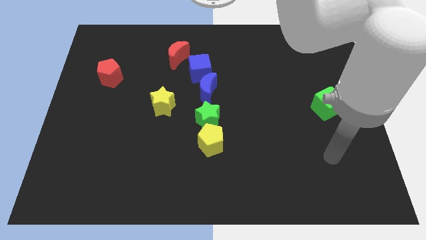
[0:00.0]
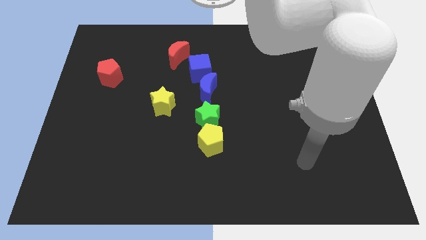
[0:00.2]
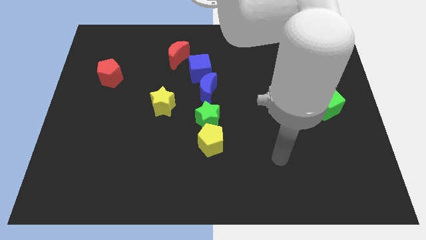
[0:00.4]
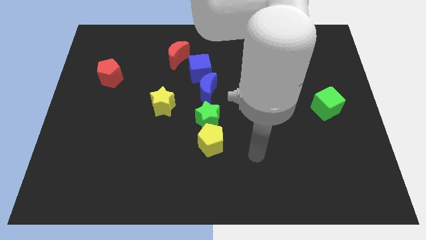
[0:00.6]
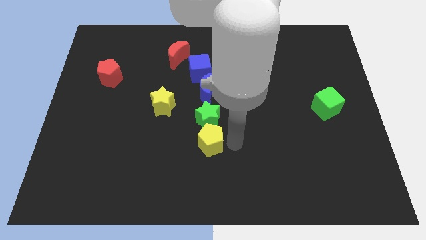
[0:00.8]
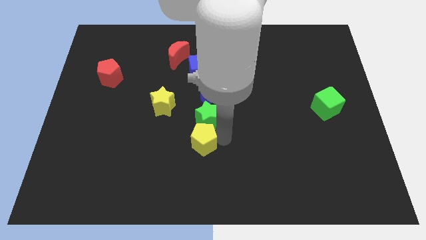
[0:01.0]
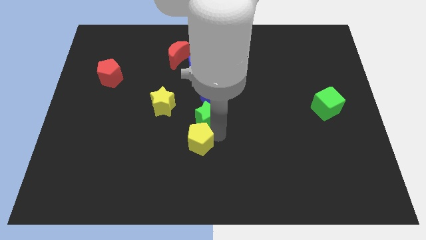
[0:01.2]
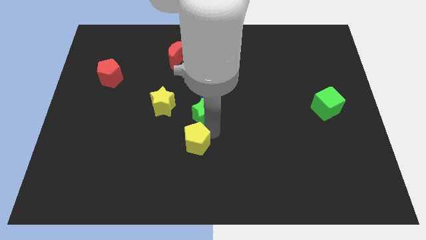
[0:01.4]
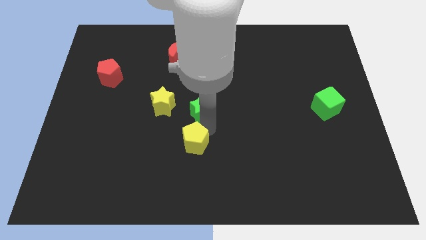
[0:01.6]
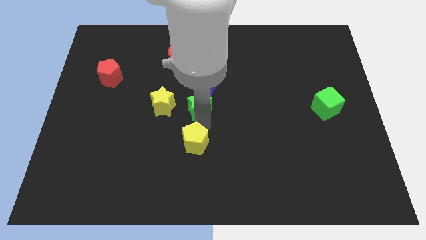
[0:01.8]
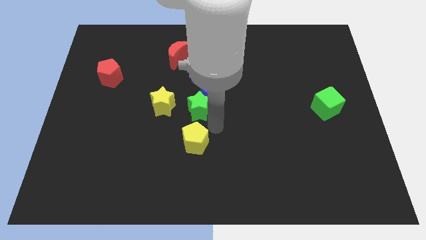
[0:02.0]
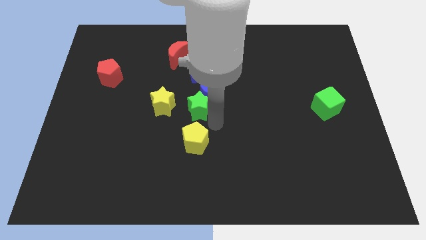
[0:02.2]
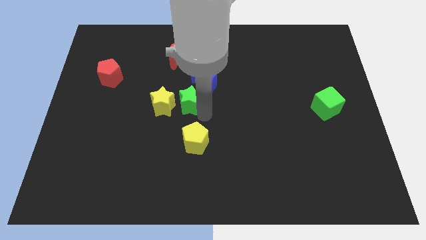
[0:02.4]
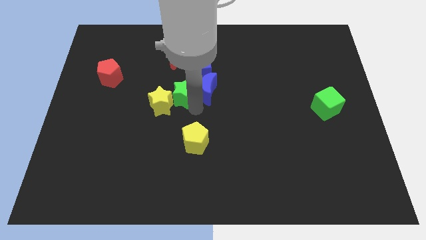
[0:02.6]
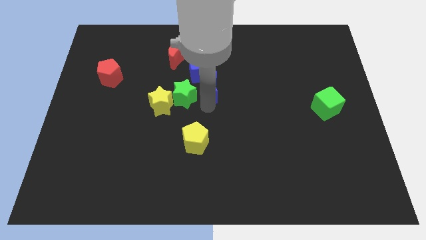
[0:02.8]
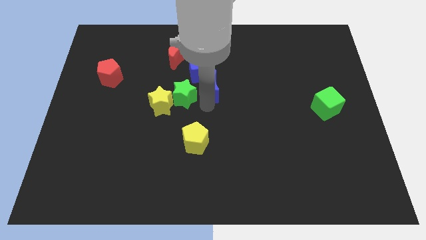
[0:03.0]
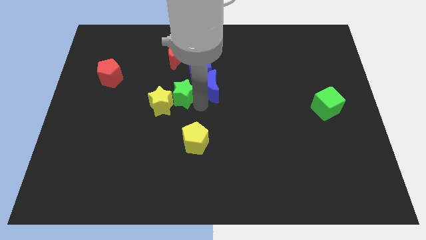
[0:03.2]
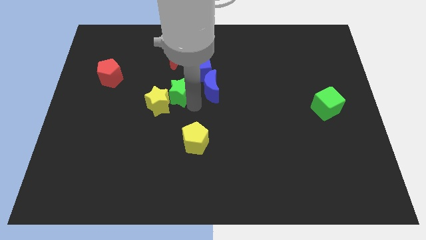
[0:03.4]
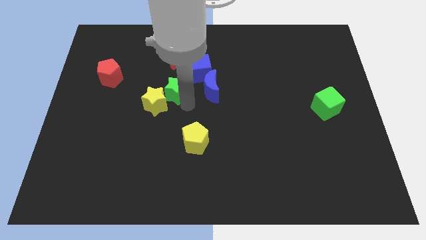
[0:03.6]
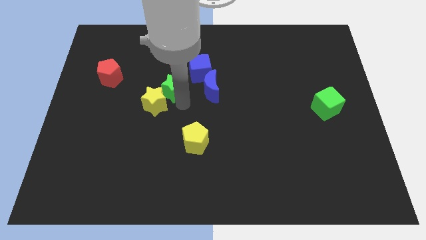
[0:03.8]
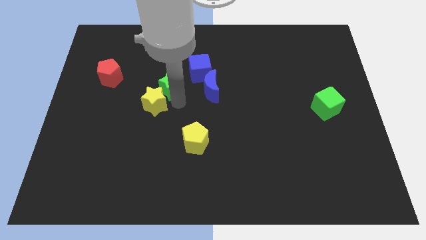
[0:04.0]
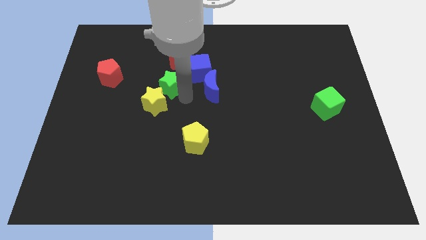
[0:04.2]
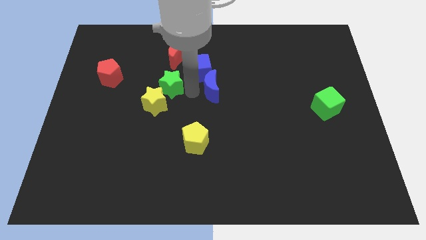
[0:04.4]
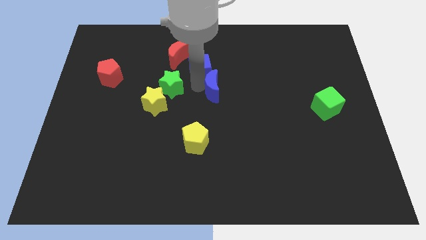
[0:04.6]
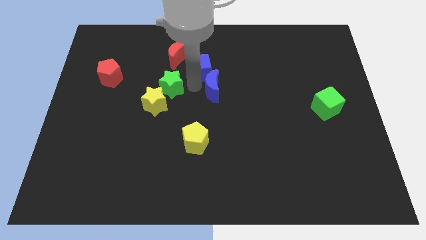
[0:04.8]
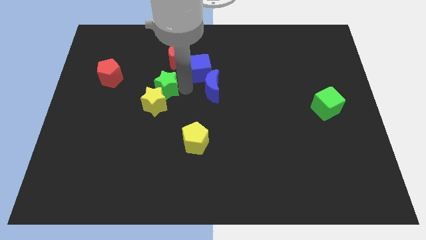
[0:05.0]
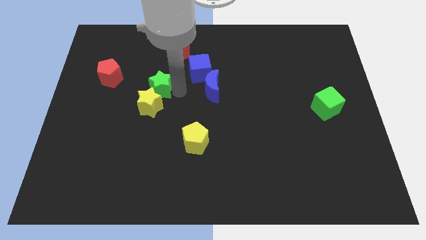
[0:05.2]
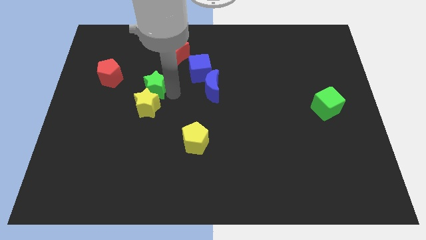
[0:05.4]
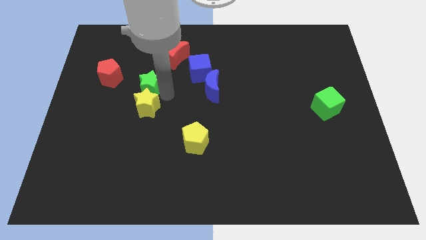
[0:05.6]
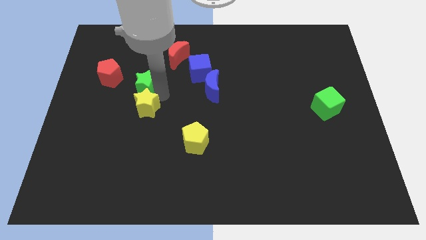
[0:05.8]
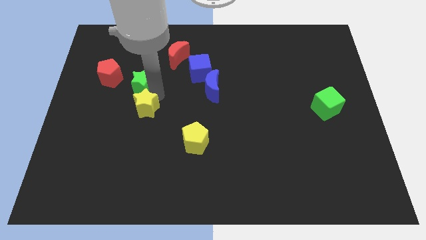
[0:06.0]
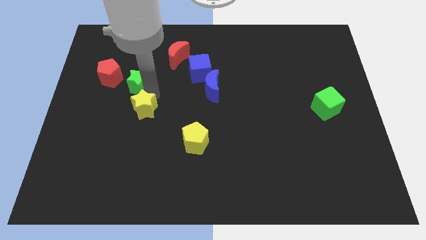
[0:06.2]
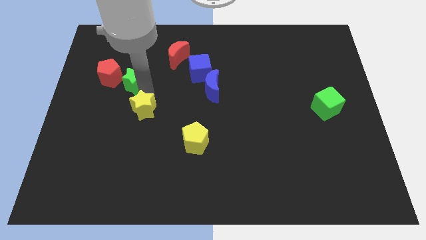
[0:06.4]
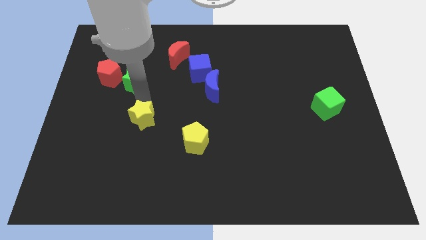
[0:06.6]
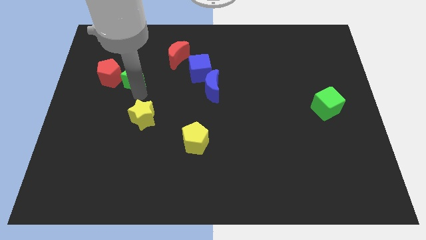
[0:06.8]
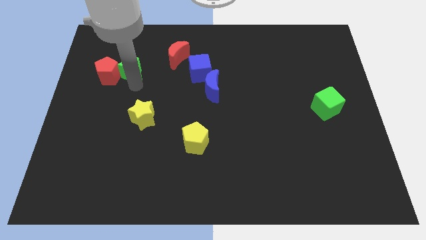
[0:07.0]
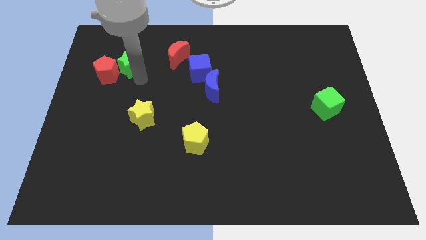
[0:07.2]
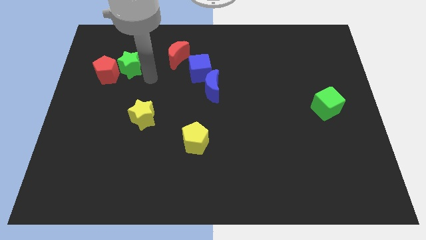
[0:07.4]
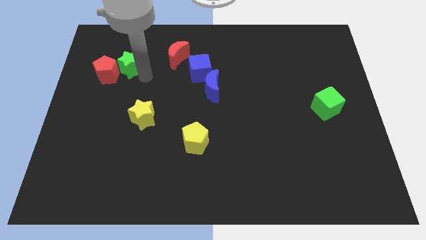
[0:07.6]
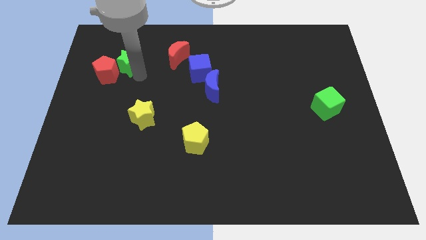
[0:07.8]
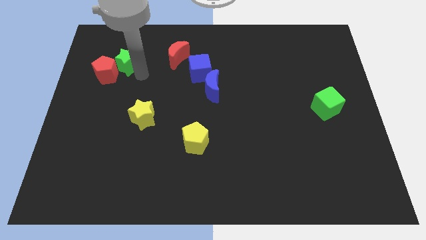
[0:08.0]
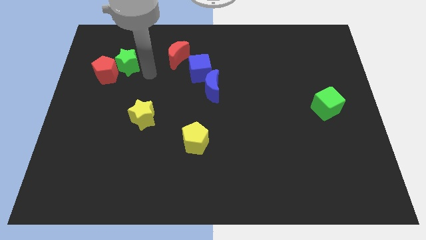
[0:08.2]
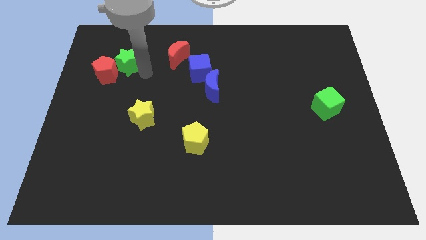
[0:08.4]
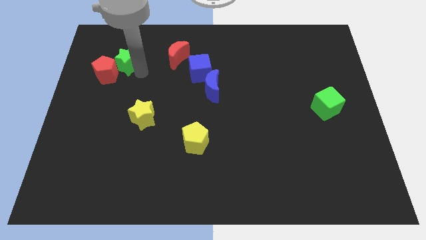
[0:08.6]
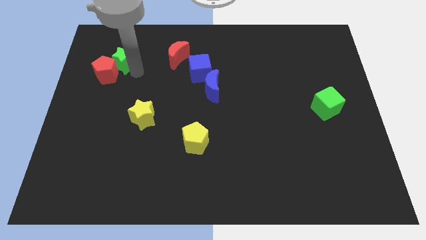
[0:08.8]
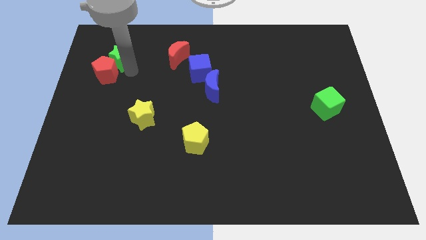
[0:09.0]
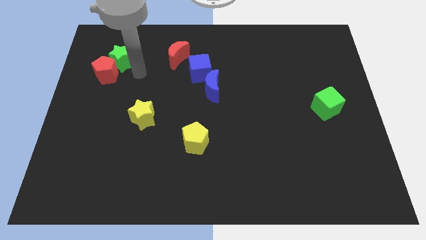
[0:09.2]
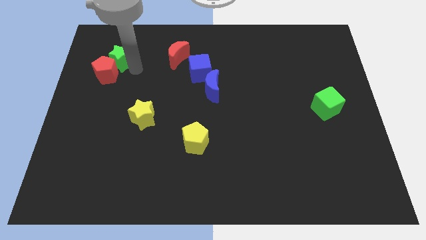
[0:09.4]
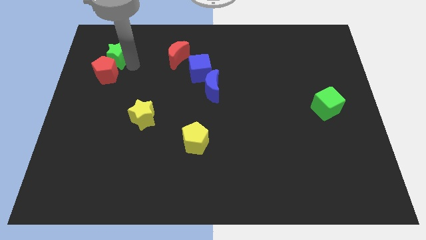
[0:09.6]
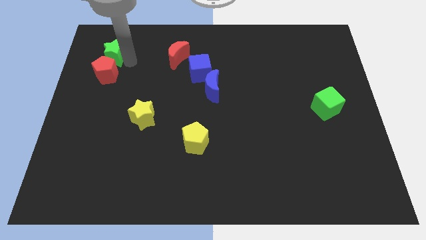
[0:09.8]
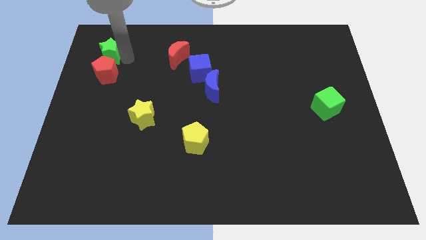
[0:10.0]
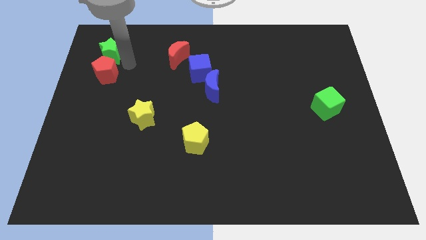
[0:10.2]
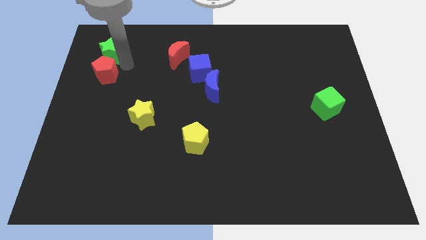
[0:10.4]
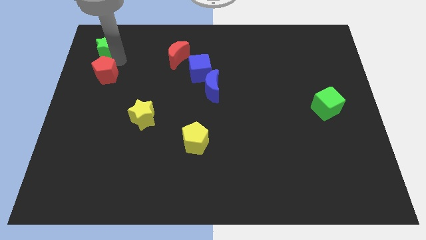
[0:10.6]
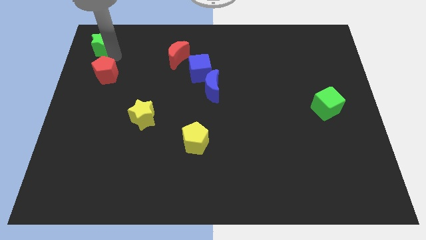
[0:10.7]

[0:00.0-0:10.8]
move the green star to the top left

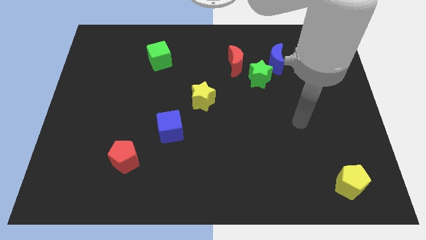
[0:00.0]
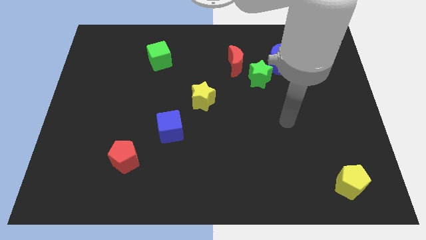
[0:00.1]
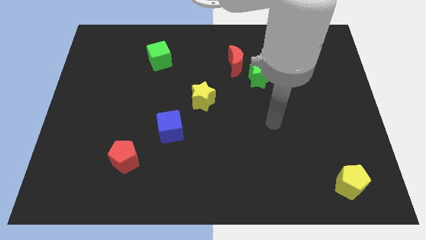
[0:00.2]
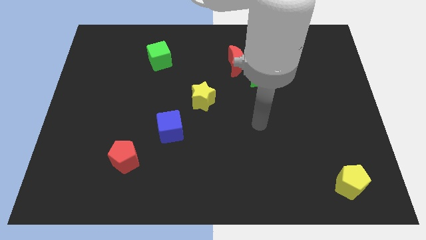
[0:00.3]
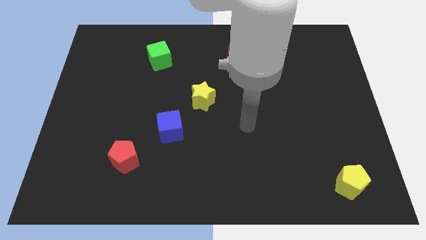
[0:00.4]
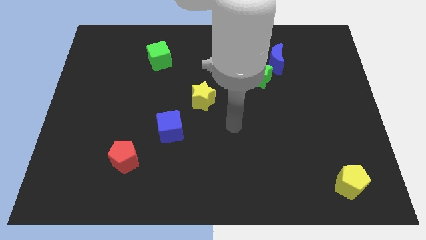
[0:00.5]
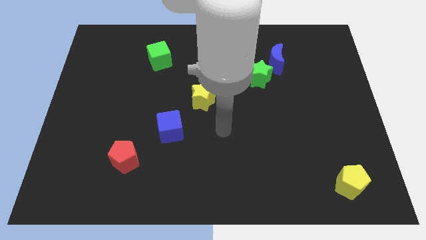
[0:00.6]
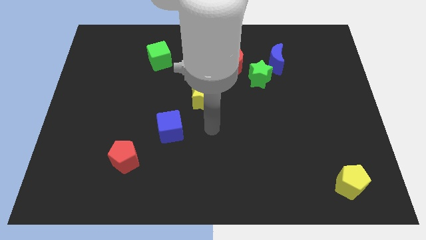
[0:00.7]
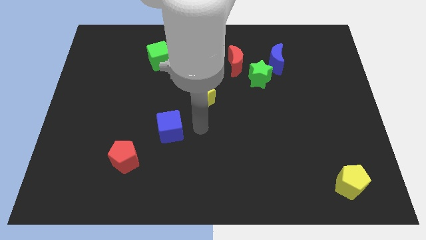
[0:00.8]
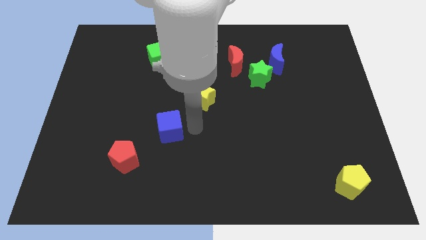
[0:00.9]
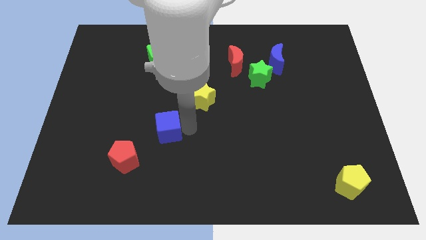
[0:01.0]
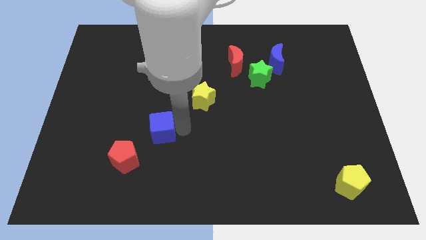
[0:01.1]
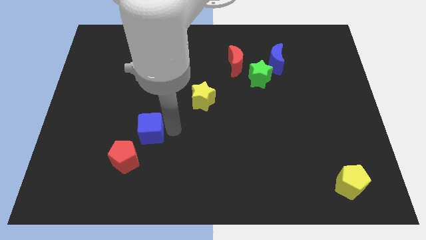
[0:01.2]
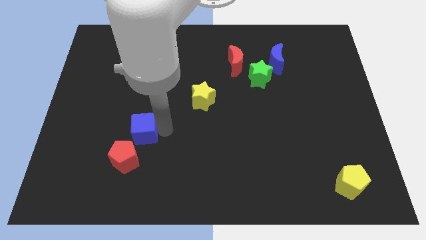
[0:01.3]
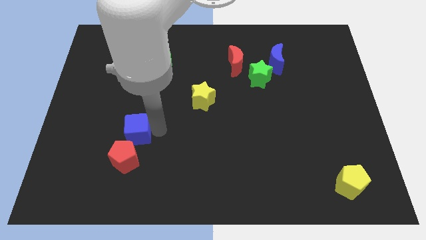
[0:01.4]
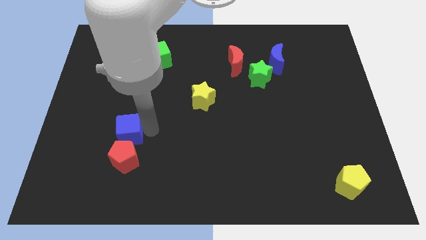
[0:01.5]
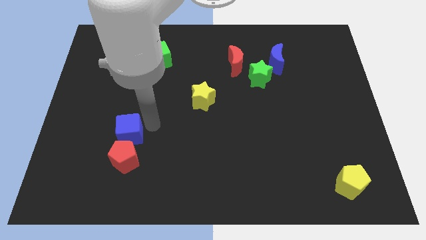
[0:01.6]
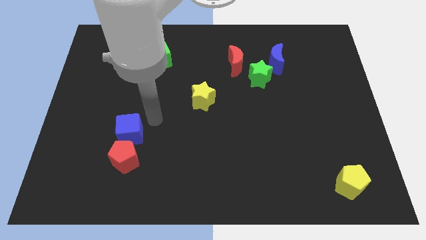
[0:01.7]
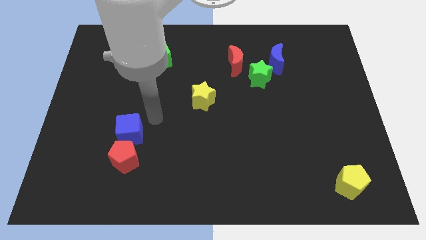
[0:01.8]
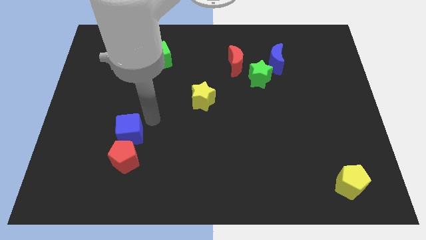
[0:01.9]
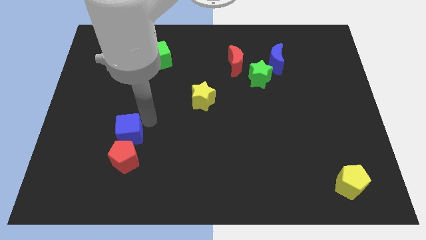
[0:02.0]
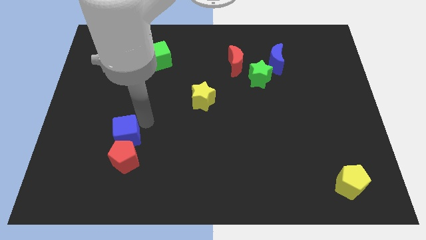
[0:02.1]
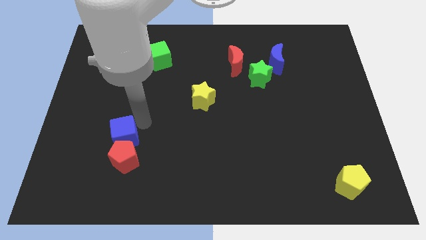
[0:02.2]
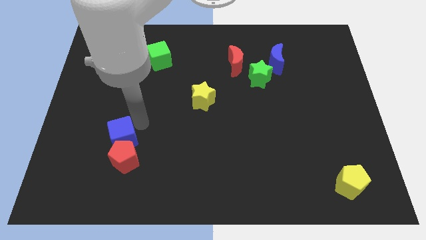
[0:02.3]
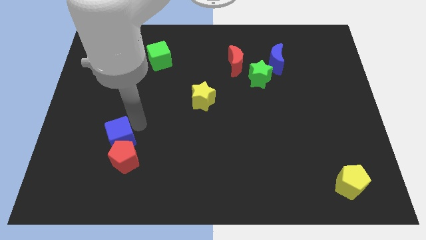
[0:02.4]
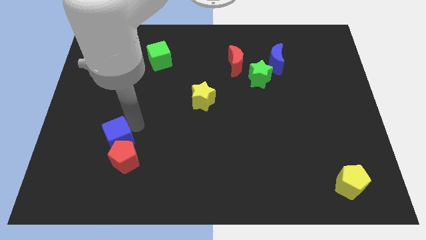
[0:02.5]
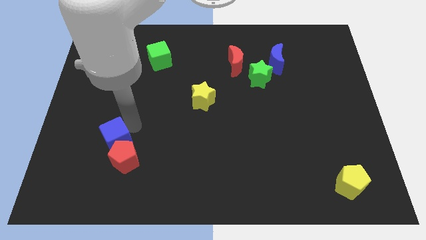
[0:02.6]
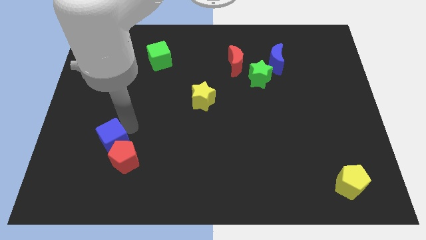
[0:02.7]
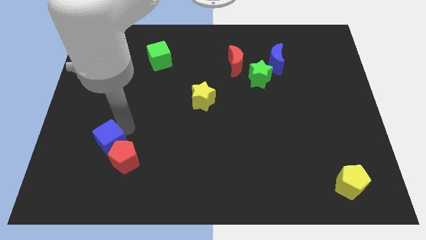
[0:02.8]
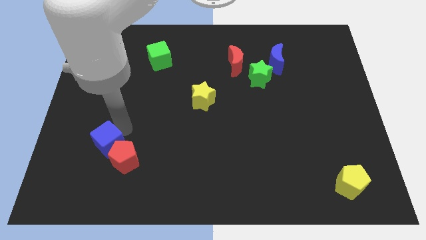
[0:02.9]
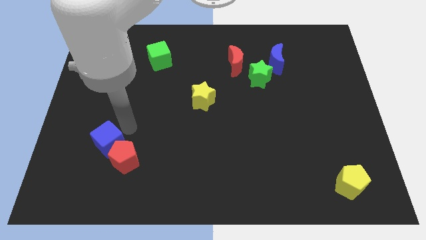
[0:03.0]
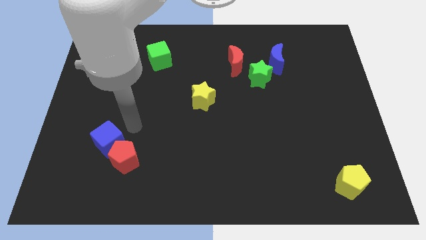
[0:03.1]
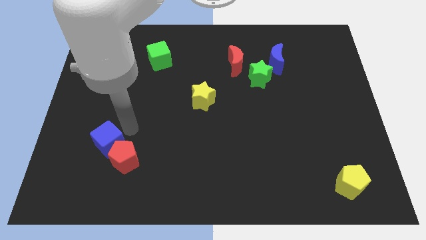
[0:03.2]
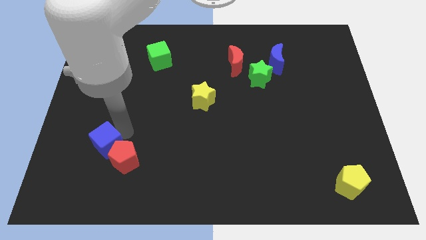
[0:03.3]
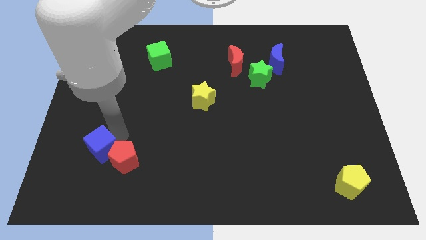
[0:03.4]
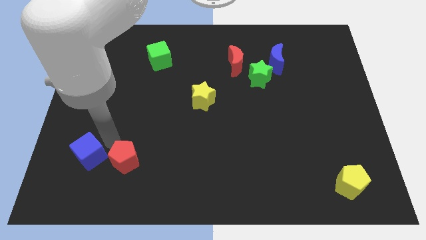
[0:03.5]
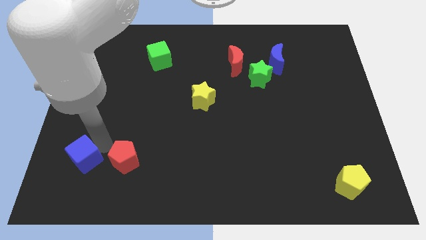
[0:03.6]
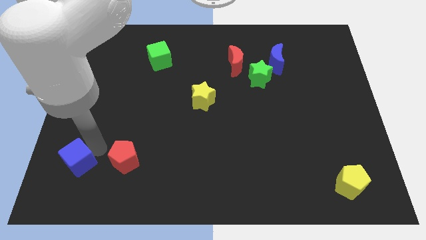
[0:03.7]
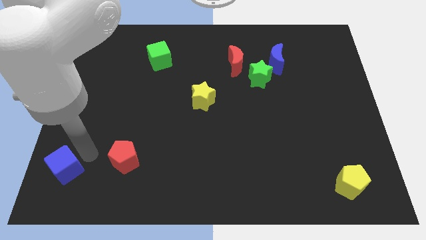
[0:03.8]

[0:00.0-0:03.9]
put the blue cube to the lower left corner
